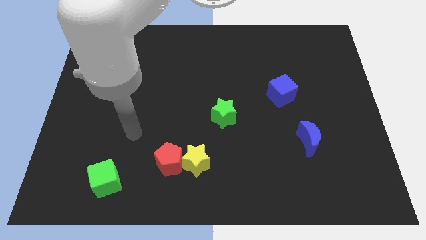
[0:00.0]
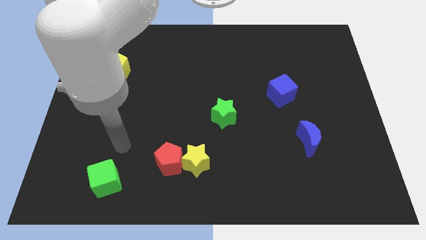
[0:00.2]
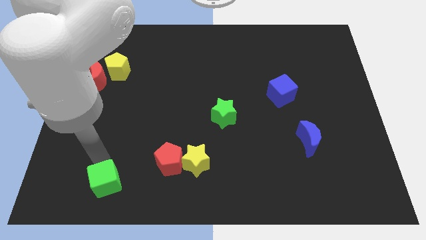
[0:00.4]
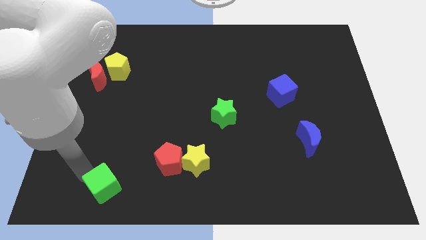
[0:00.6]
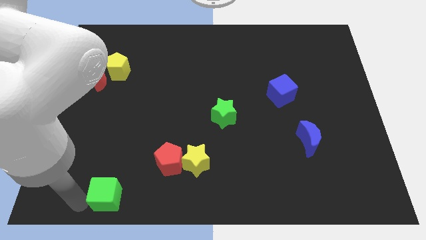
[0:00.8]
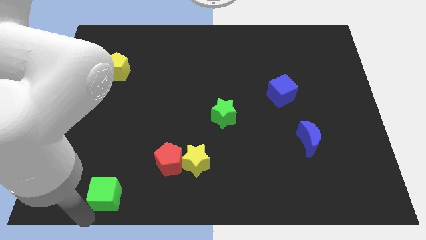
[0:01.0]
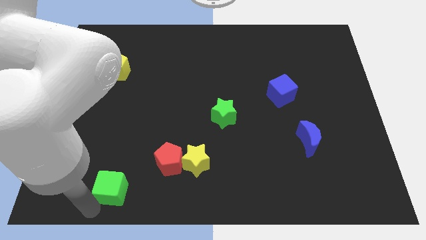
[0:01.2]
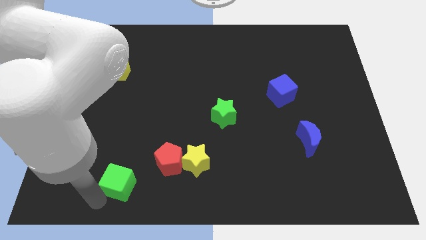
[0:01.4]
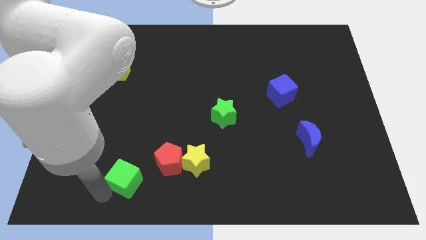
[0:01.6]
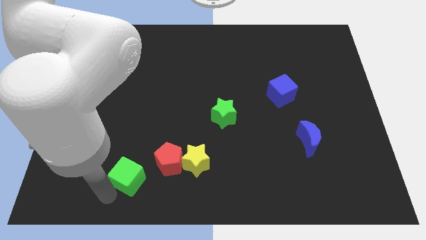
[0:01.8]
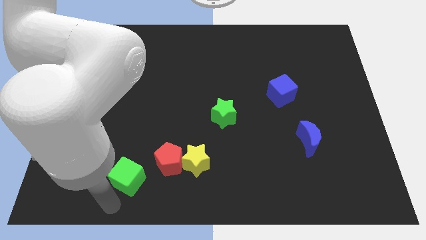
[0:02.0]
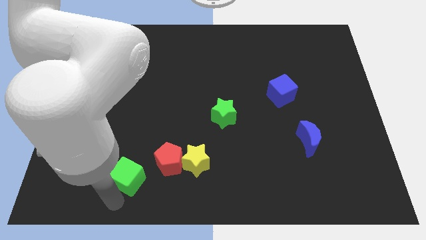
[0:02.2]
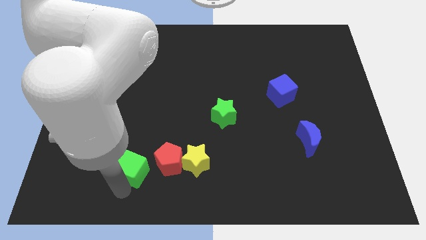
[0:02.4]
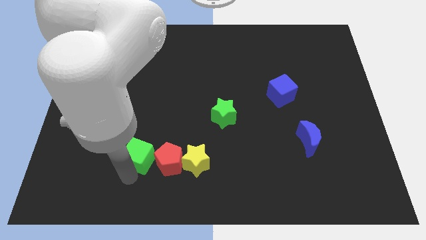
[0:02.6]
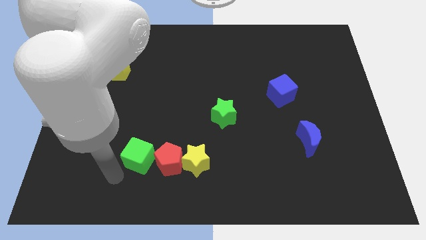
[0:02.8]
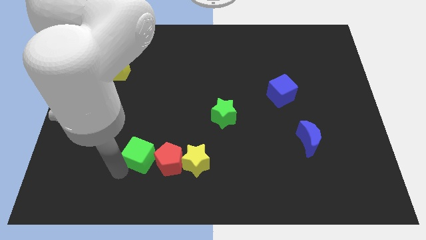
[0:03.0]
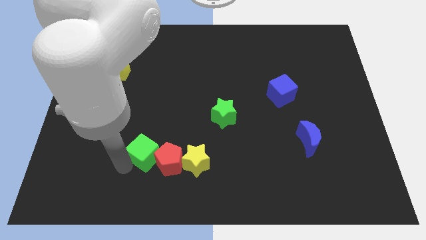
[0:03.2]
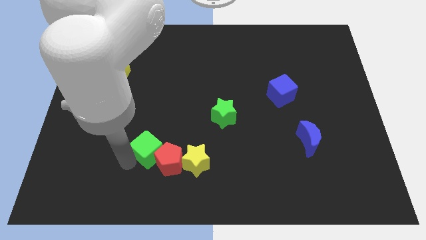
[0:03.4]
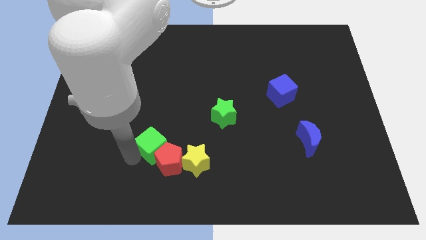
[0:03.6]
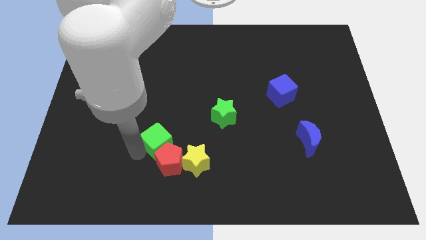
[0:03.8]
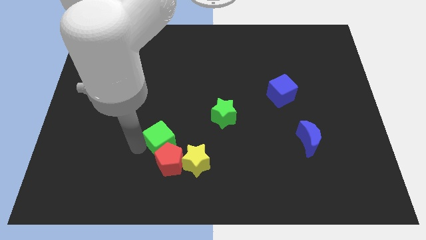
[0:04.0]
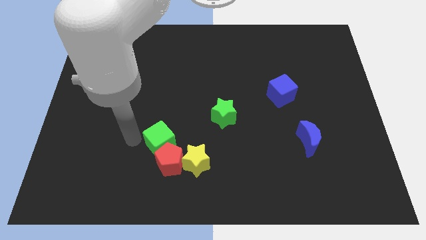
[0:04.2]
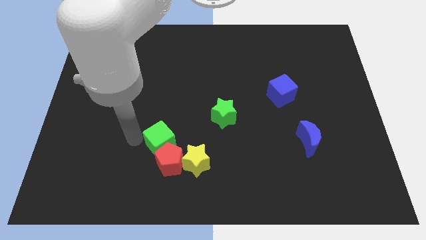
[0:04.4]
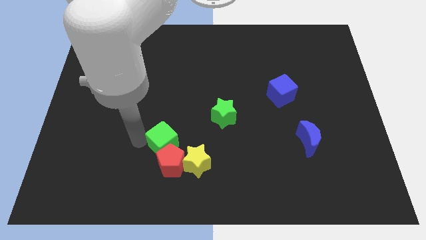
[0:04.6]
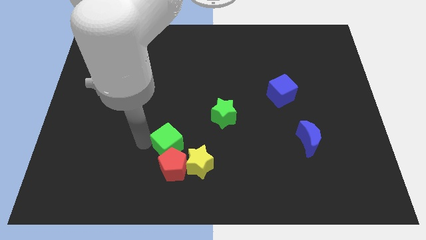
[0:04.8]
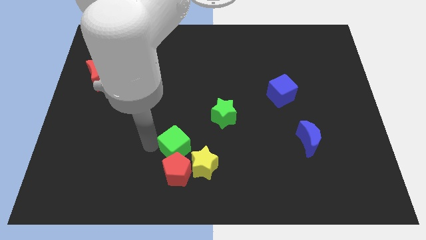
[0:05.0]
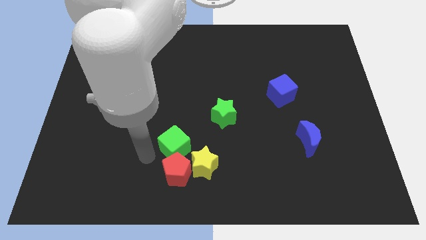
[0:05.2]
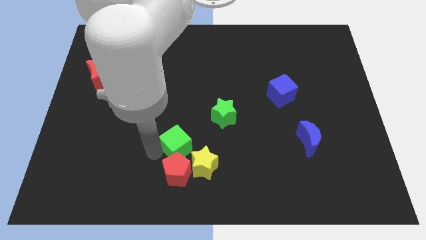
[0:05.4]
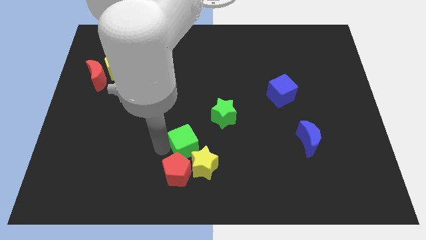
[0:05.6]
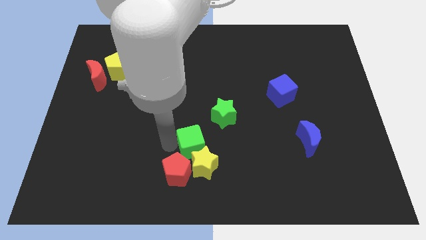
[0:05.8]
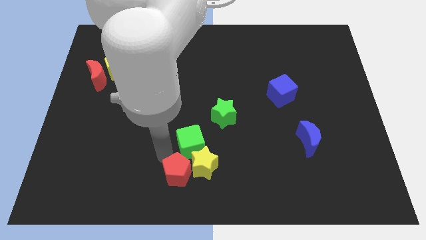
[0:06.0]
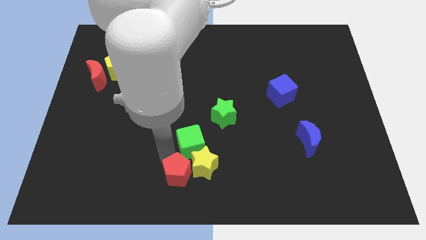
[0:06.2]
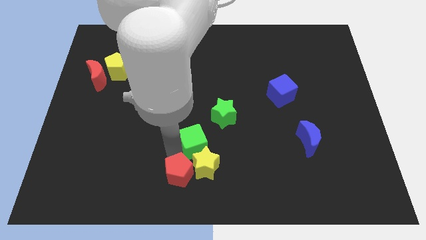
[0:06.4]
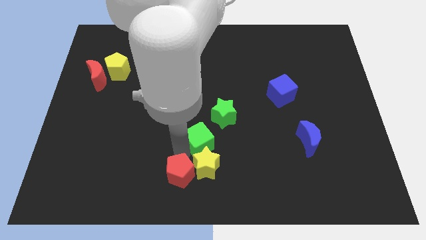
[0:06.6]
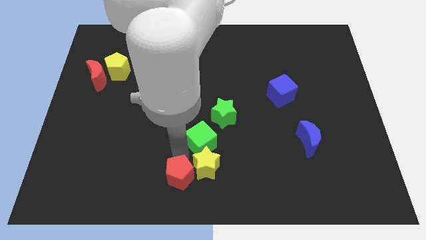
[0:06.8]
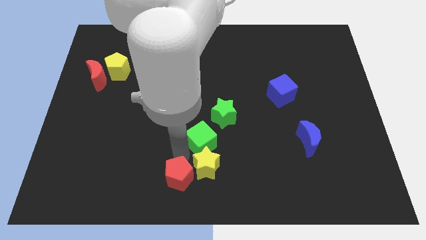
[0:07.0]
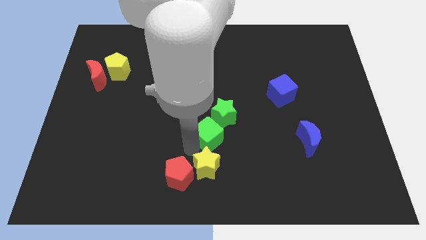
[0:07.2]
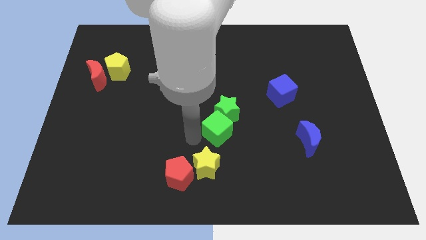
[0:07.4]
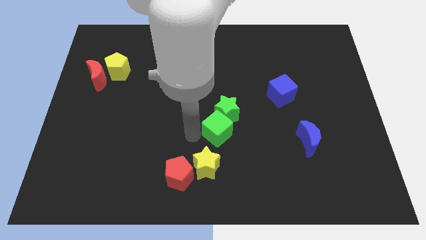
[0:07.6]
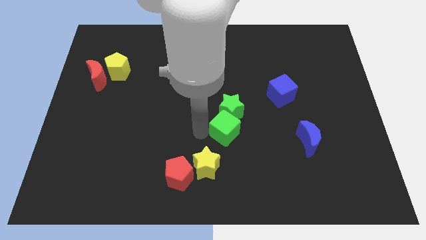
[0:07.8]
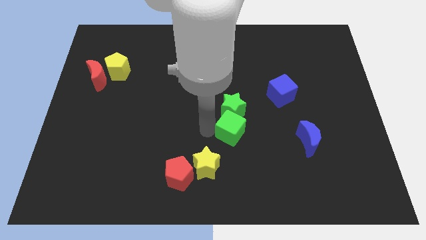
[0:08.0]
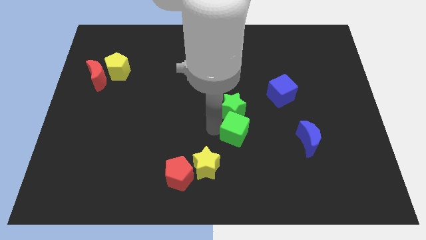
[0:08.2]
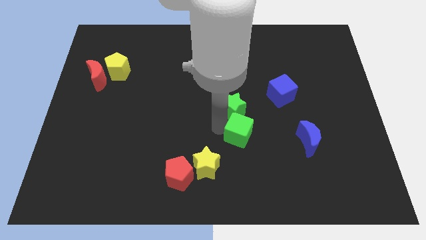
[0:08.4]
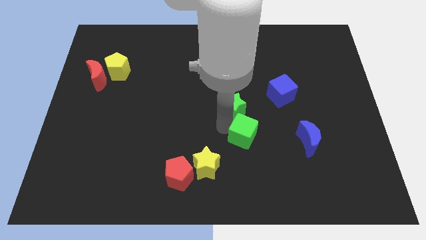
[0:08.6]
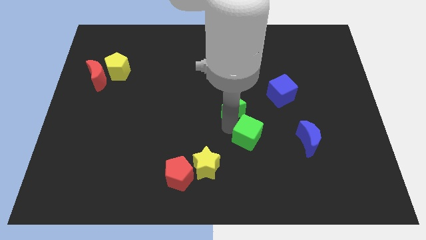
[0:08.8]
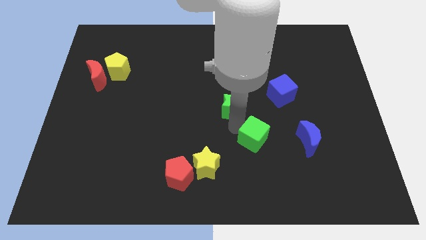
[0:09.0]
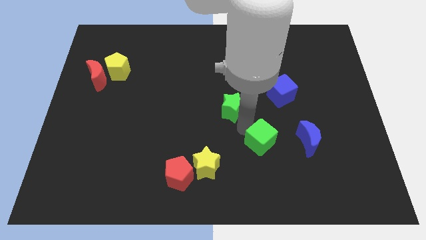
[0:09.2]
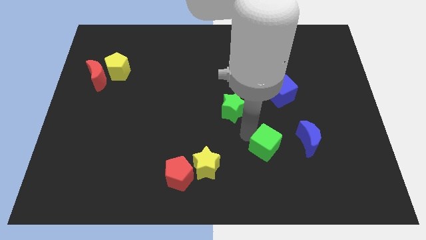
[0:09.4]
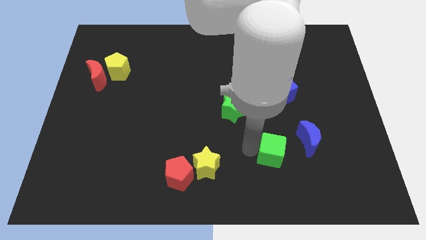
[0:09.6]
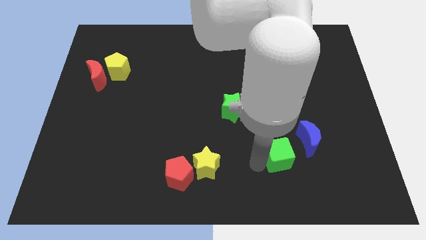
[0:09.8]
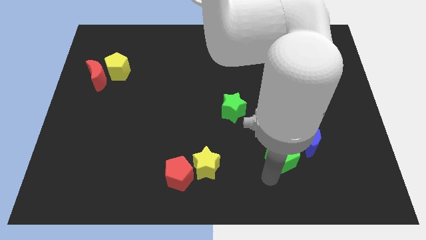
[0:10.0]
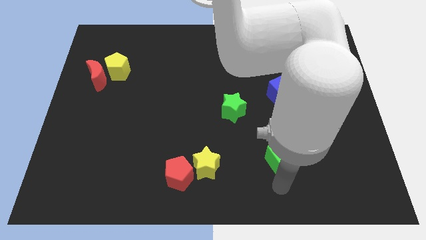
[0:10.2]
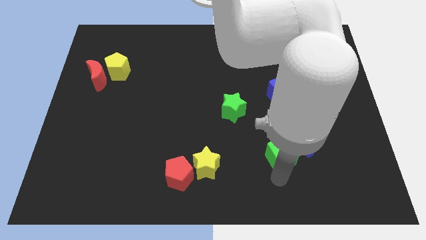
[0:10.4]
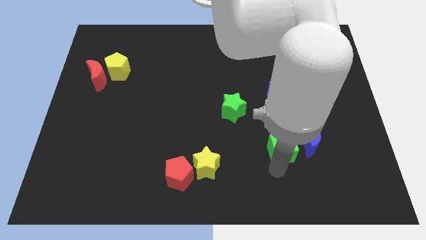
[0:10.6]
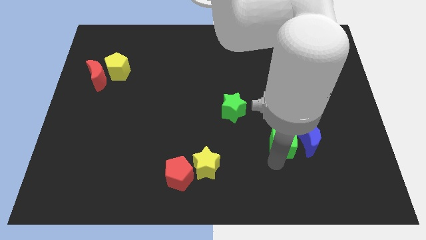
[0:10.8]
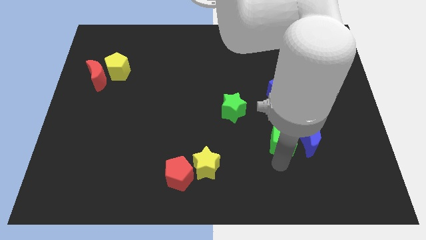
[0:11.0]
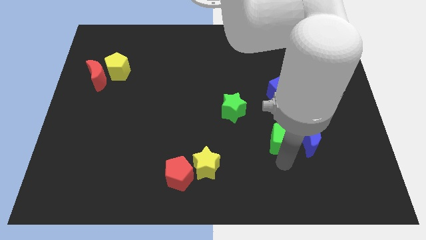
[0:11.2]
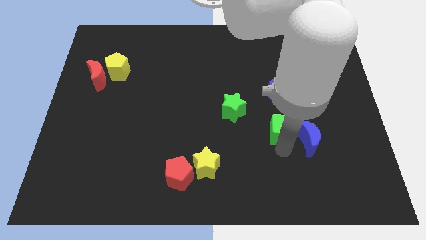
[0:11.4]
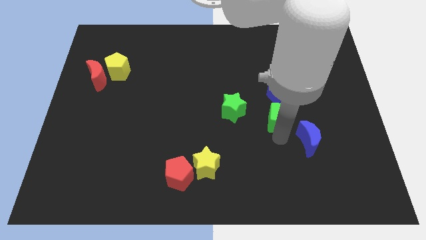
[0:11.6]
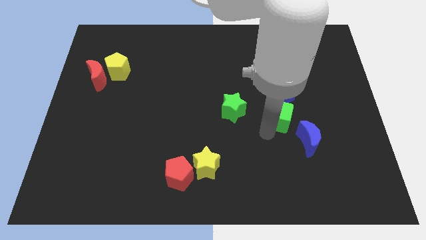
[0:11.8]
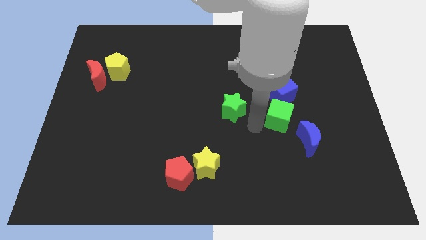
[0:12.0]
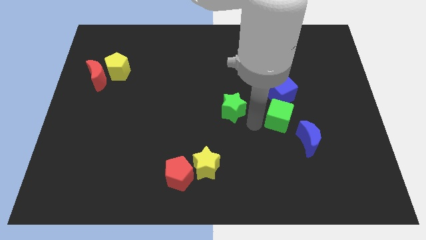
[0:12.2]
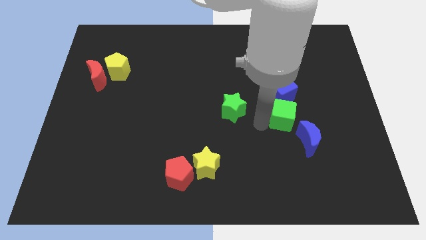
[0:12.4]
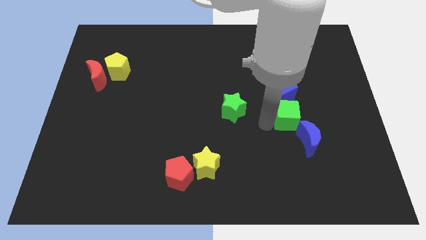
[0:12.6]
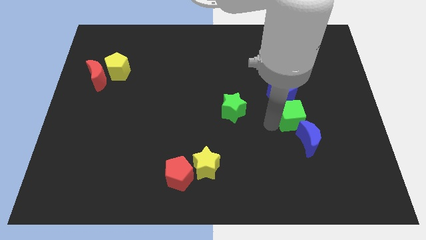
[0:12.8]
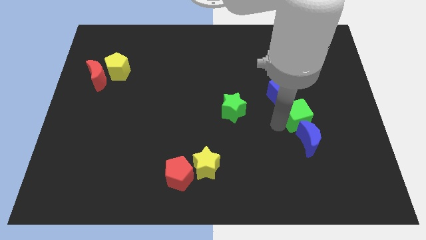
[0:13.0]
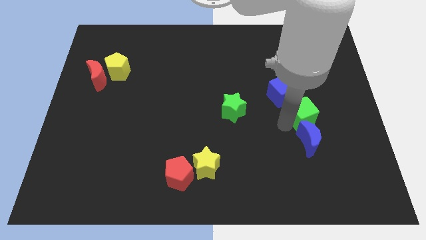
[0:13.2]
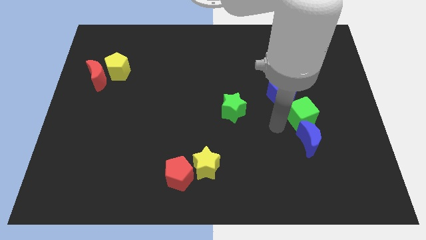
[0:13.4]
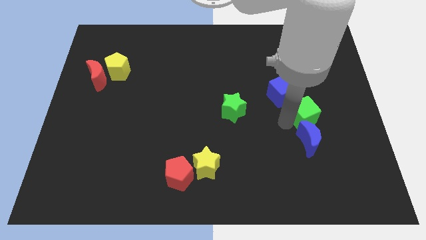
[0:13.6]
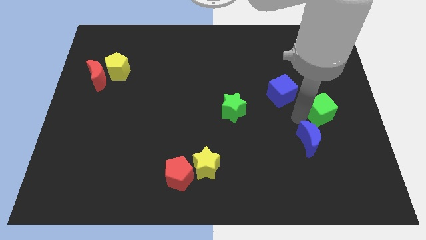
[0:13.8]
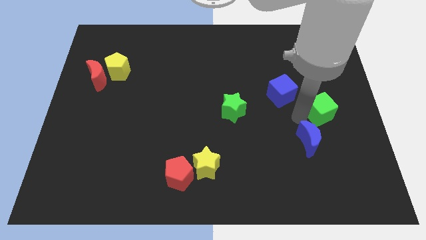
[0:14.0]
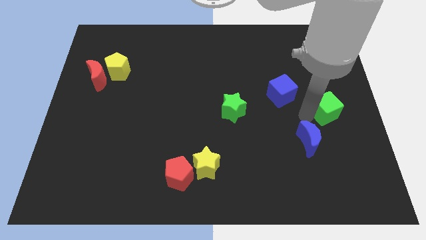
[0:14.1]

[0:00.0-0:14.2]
push the green cube to the right side
